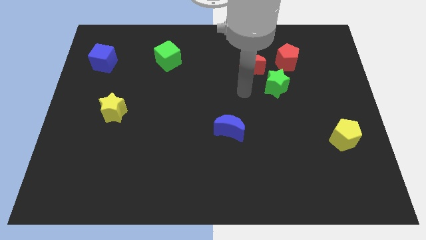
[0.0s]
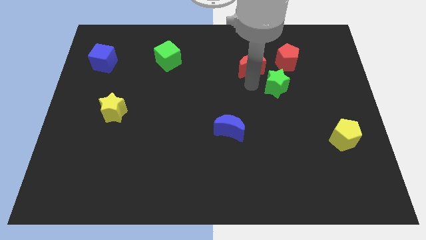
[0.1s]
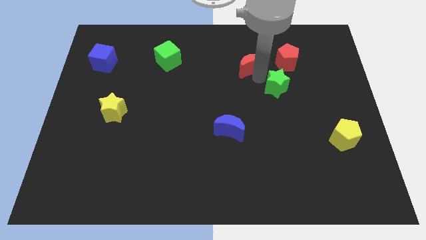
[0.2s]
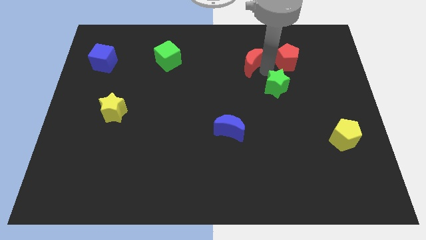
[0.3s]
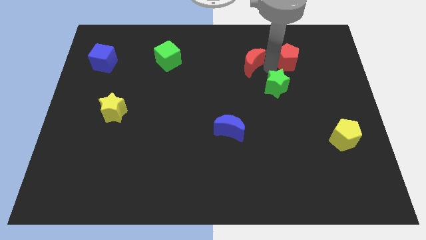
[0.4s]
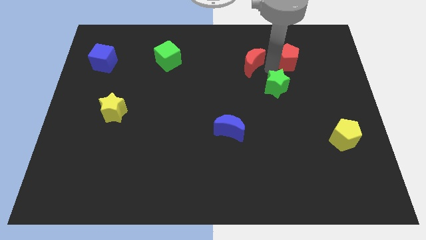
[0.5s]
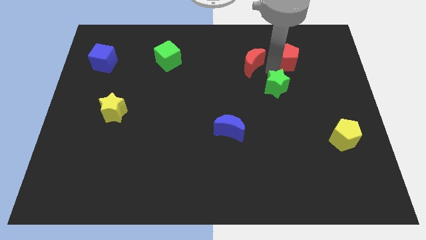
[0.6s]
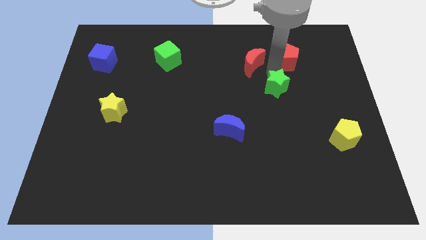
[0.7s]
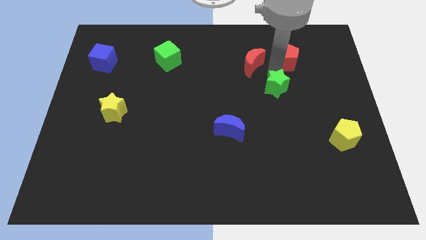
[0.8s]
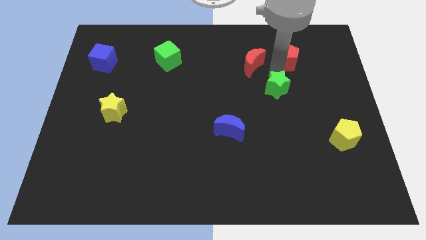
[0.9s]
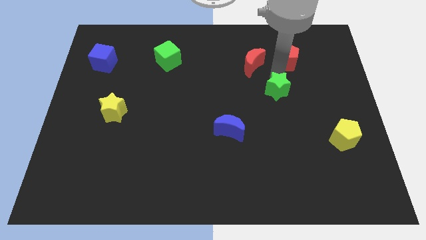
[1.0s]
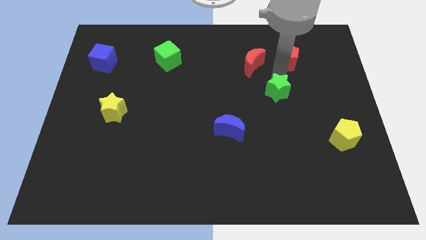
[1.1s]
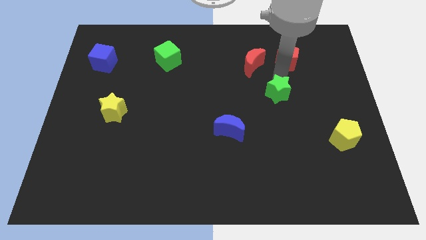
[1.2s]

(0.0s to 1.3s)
pull the green star apart from the red moon and red pentagon

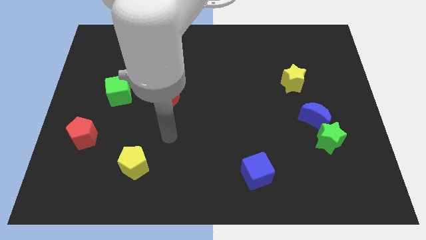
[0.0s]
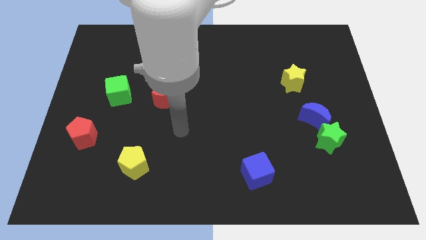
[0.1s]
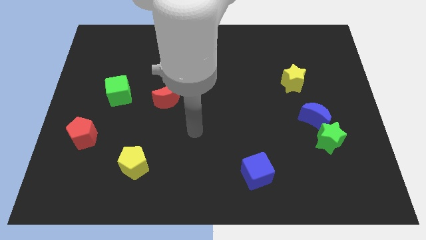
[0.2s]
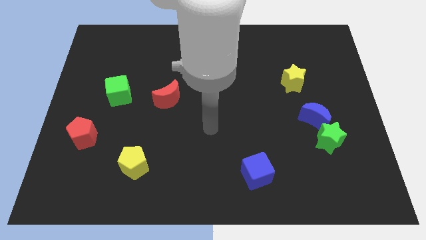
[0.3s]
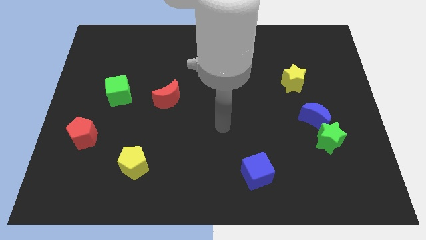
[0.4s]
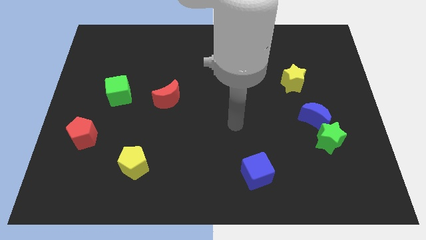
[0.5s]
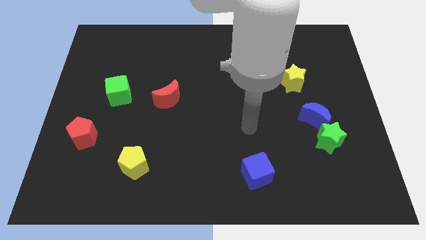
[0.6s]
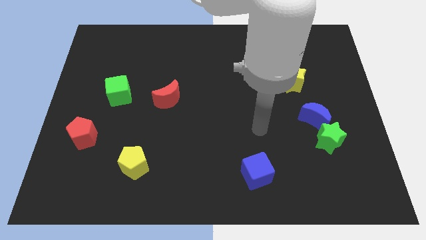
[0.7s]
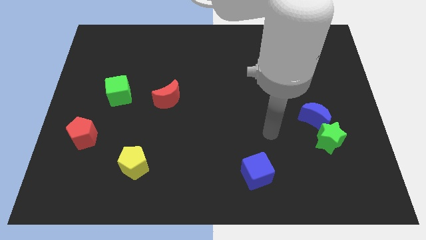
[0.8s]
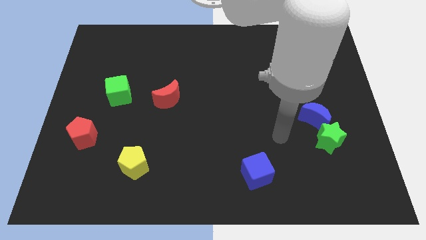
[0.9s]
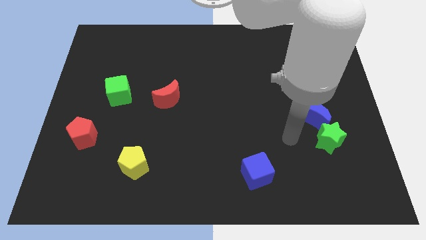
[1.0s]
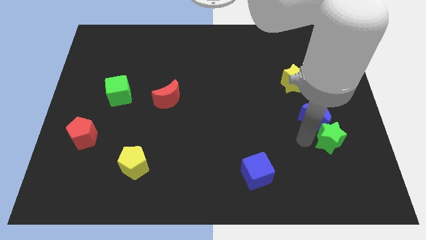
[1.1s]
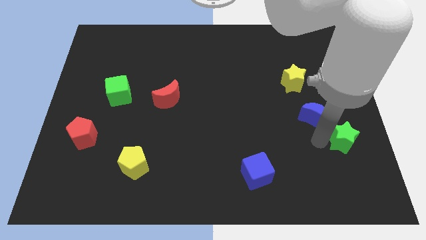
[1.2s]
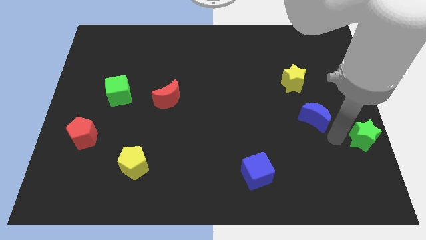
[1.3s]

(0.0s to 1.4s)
move the blue moon away from the green star

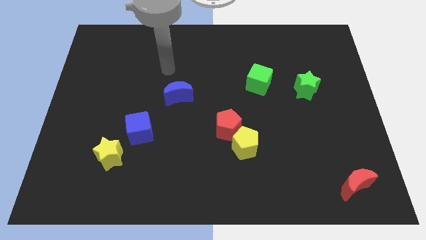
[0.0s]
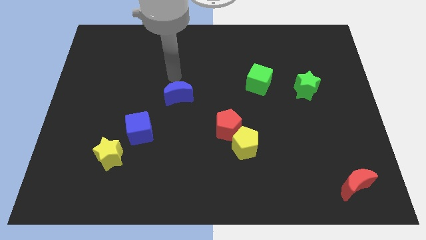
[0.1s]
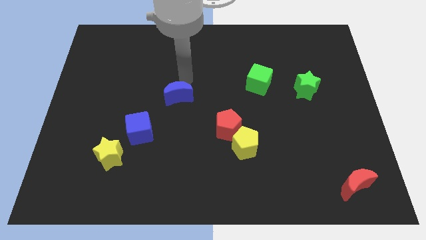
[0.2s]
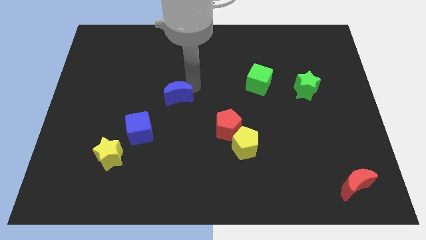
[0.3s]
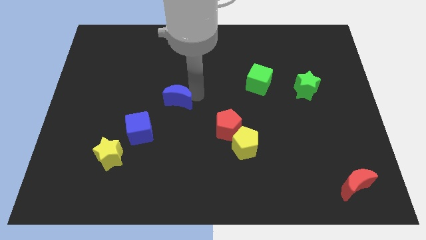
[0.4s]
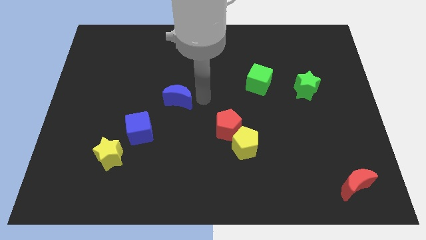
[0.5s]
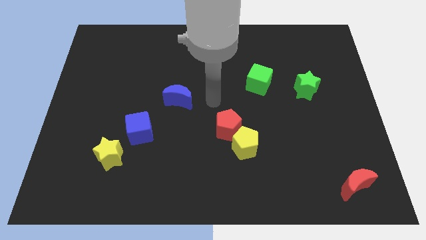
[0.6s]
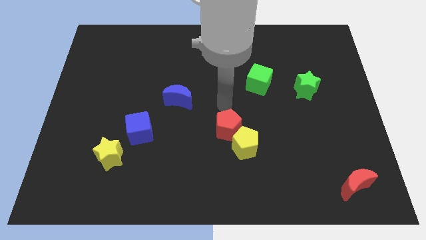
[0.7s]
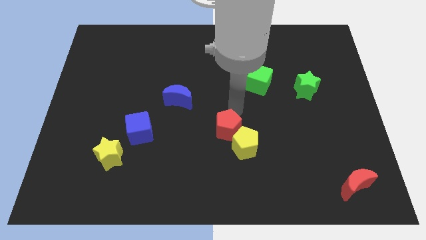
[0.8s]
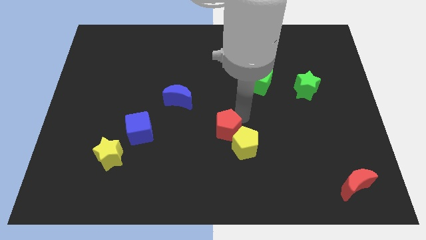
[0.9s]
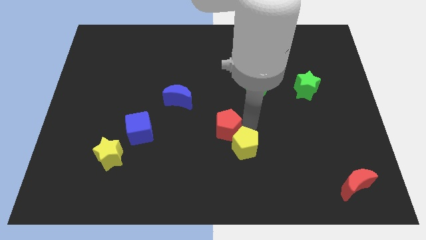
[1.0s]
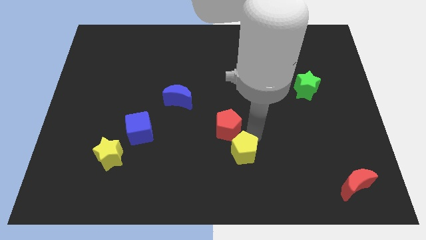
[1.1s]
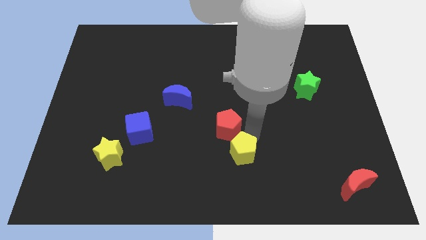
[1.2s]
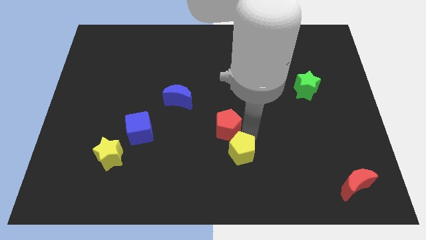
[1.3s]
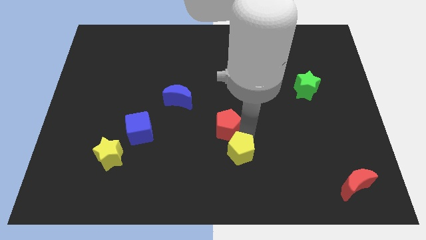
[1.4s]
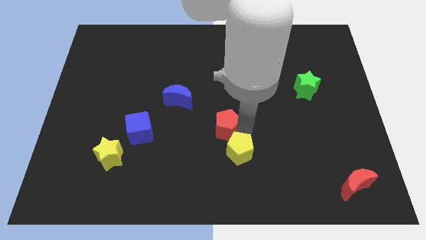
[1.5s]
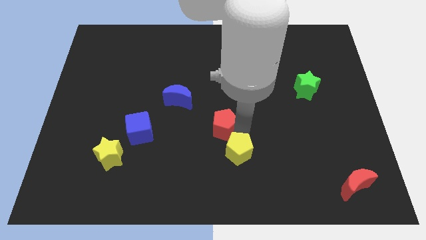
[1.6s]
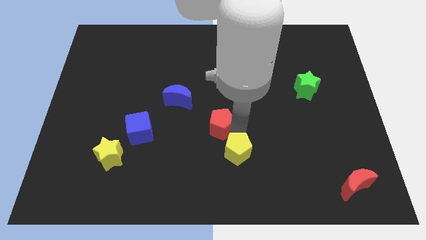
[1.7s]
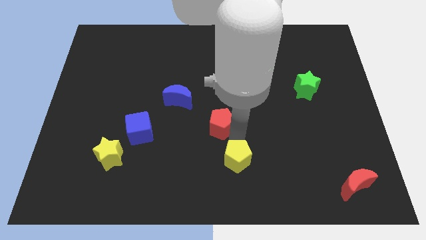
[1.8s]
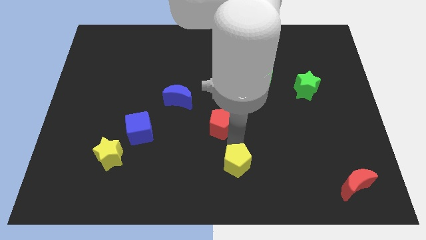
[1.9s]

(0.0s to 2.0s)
move the red pentagon away from the yellow pentagon

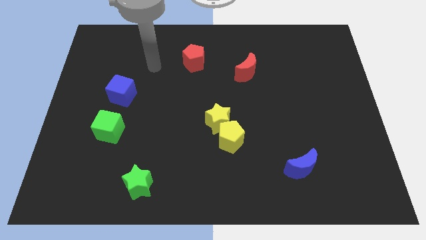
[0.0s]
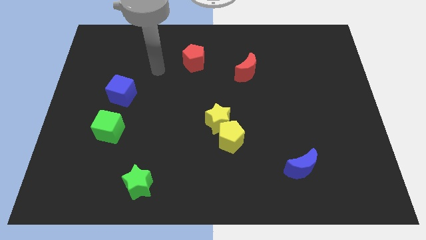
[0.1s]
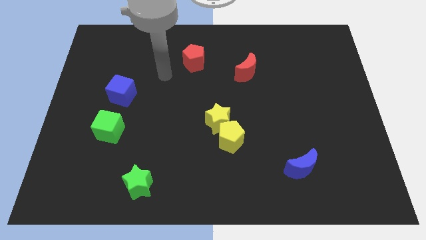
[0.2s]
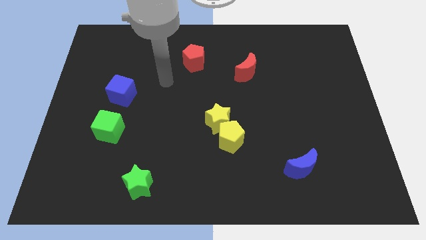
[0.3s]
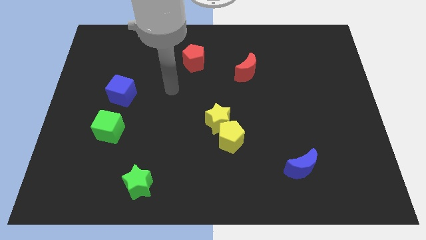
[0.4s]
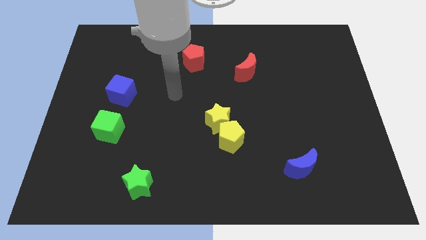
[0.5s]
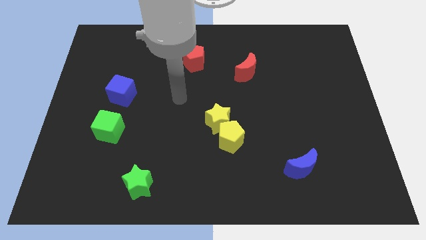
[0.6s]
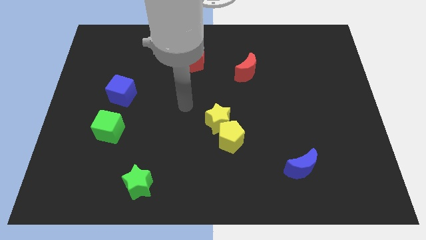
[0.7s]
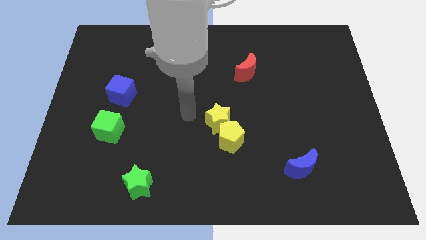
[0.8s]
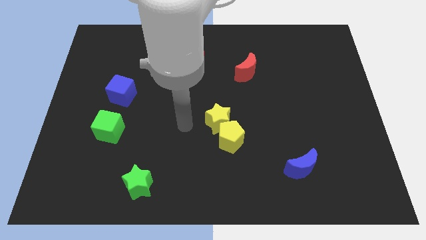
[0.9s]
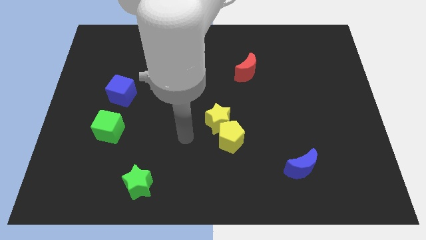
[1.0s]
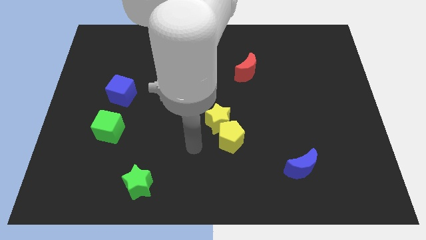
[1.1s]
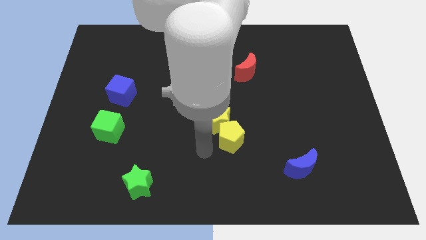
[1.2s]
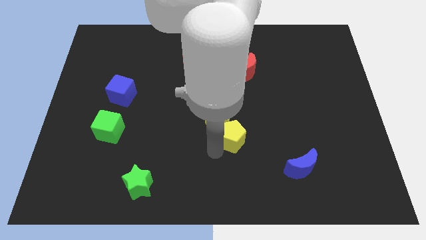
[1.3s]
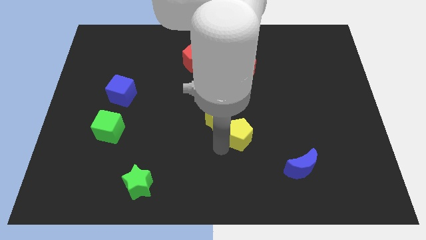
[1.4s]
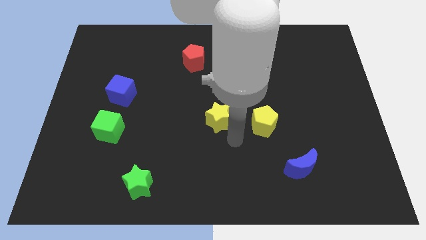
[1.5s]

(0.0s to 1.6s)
separate the yellow star from the yellow pentagon

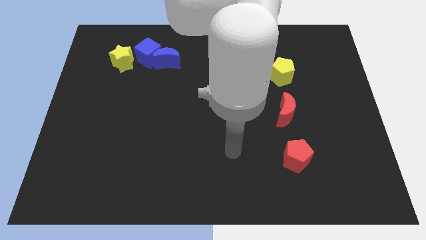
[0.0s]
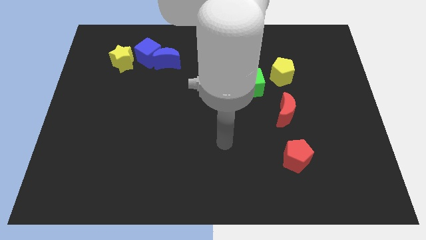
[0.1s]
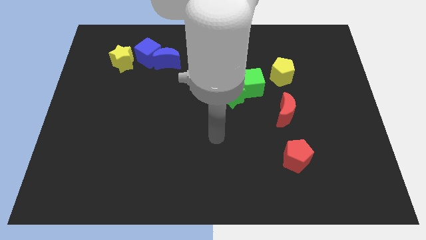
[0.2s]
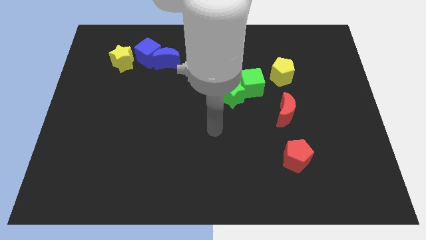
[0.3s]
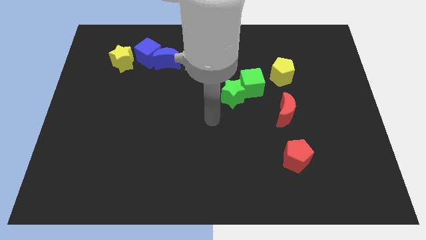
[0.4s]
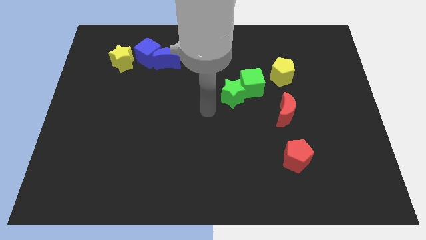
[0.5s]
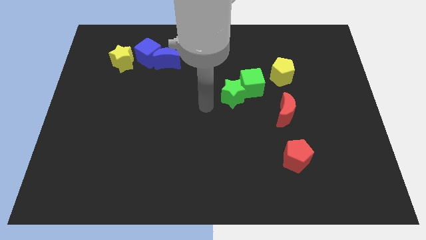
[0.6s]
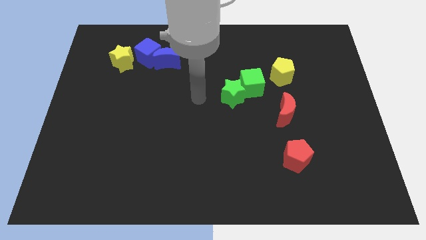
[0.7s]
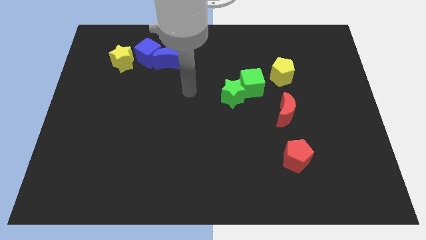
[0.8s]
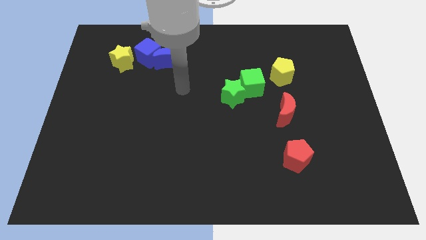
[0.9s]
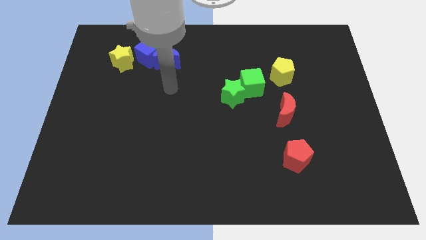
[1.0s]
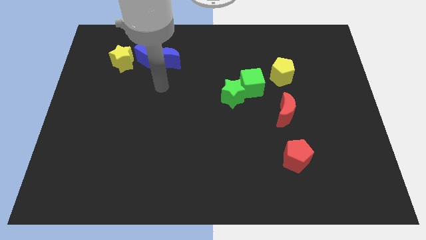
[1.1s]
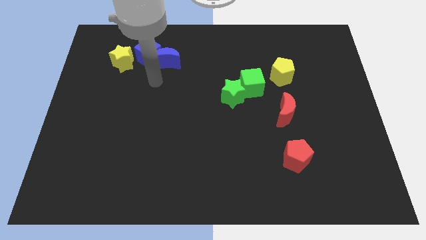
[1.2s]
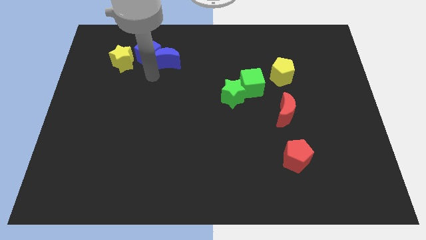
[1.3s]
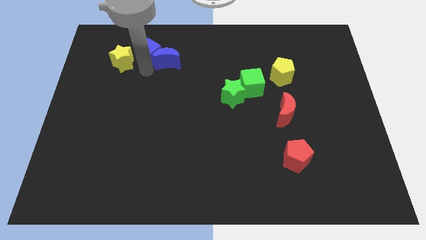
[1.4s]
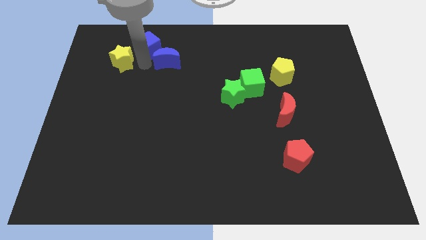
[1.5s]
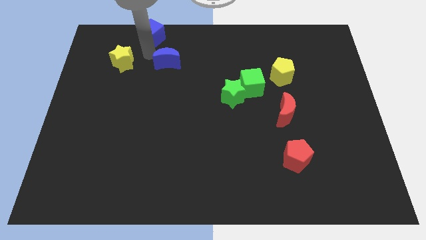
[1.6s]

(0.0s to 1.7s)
separate the blue moon from the blue cube

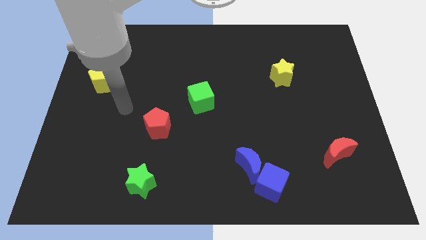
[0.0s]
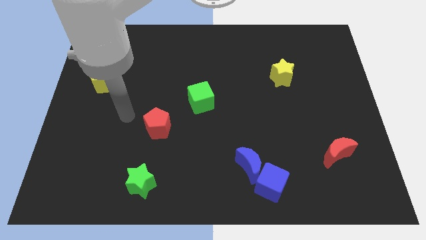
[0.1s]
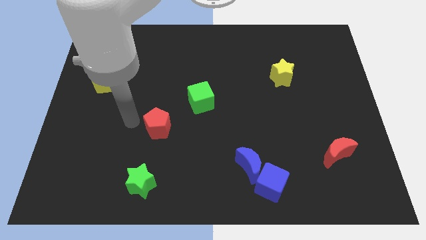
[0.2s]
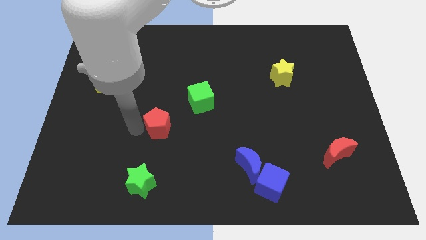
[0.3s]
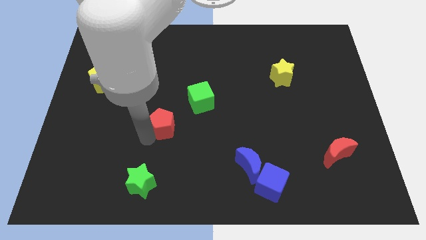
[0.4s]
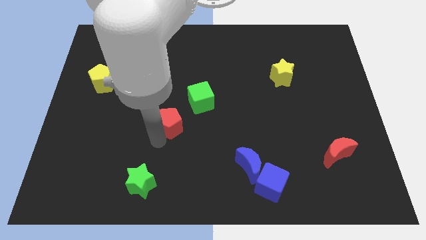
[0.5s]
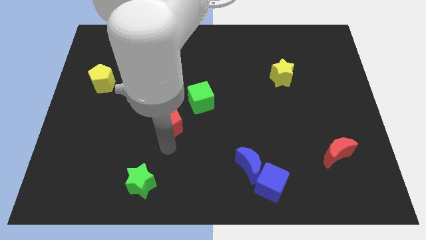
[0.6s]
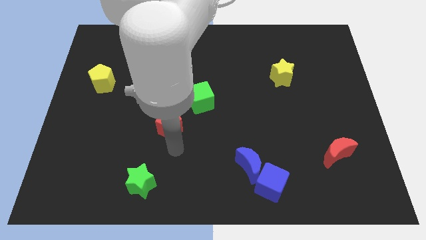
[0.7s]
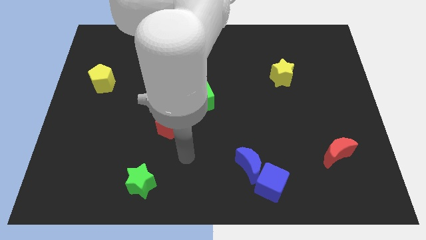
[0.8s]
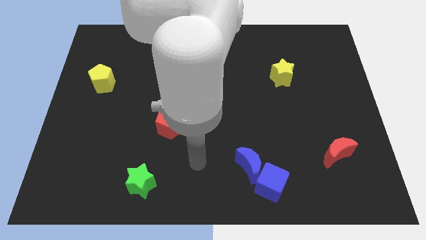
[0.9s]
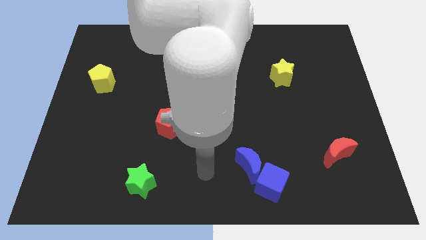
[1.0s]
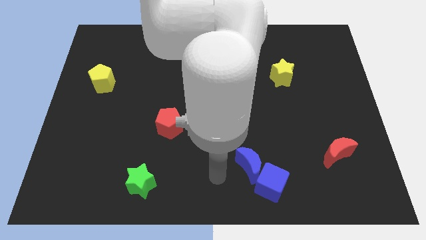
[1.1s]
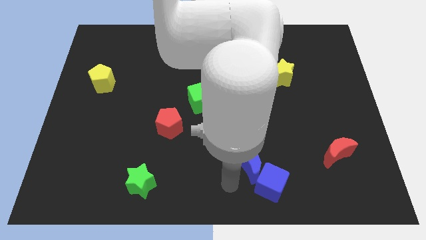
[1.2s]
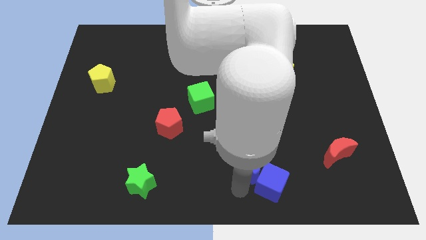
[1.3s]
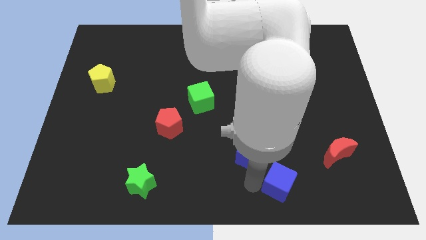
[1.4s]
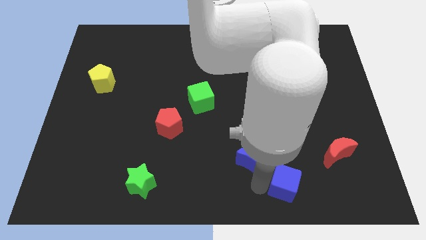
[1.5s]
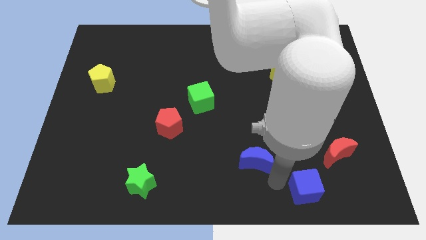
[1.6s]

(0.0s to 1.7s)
move the blue moon away from the blue cube
